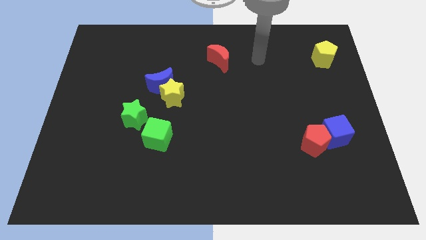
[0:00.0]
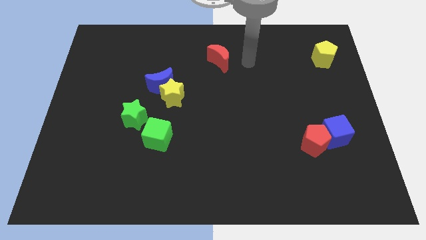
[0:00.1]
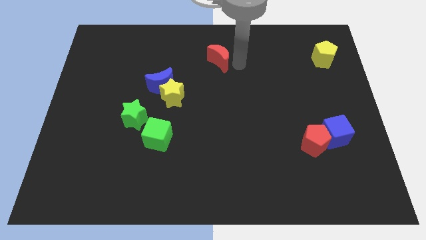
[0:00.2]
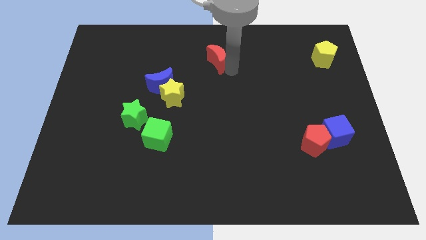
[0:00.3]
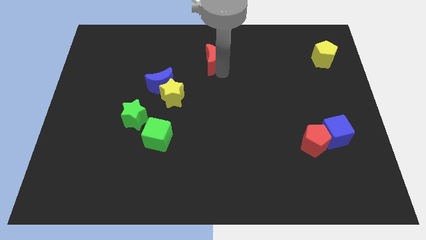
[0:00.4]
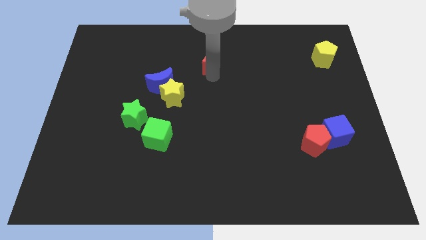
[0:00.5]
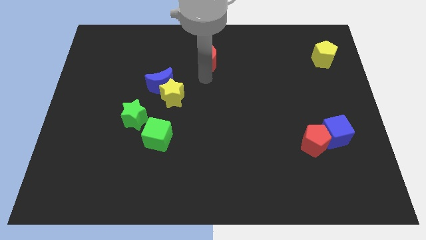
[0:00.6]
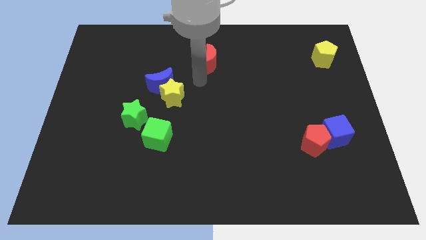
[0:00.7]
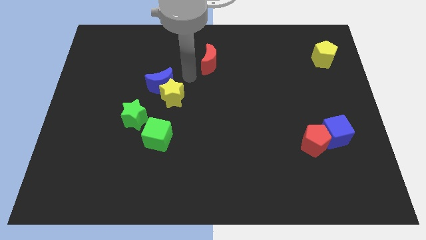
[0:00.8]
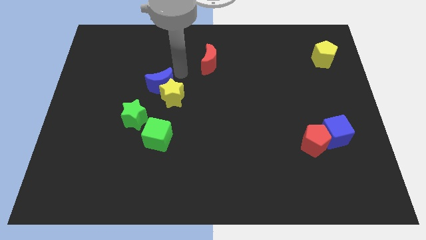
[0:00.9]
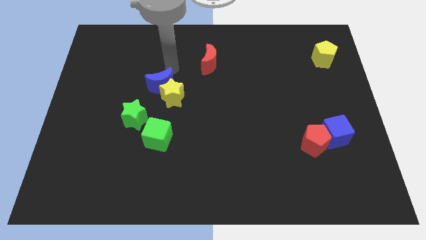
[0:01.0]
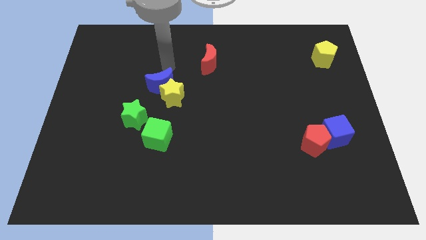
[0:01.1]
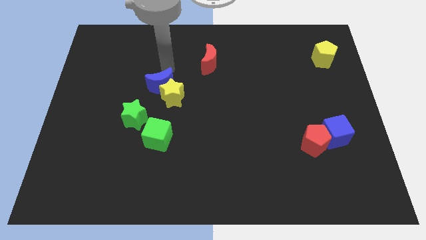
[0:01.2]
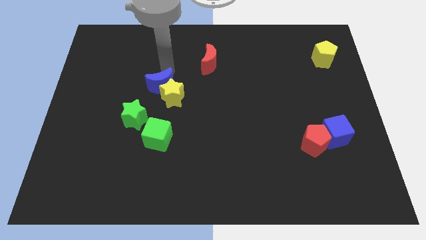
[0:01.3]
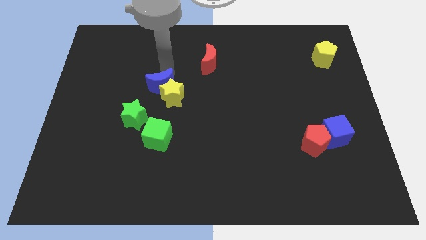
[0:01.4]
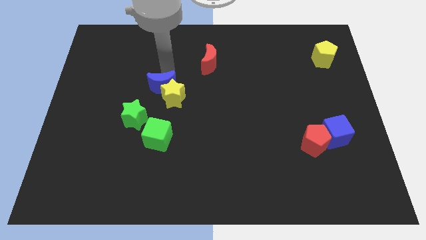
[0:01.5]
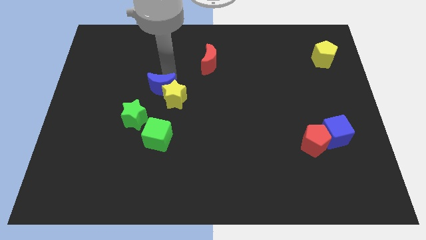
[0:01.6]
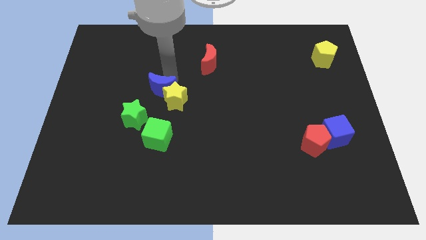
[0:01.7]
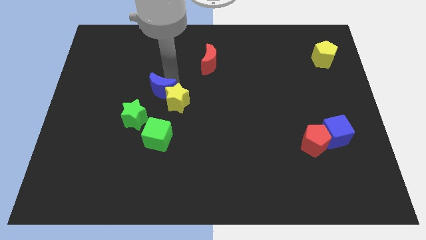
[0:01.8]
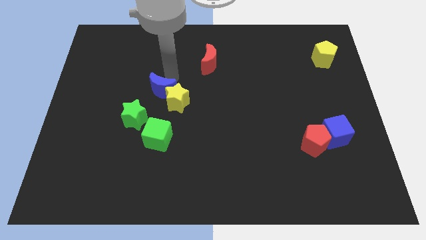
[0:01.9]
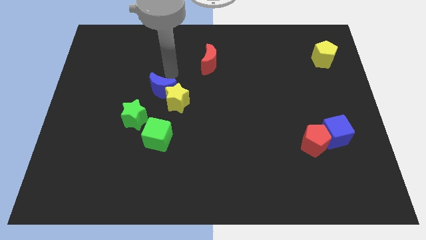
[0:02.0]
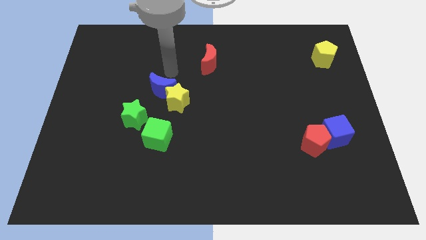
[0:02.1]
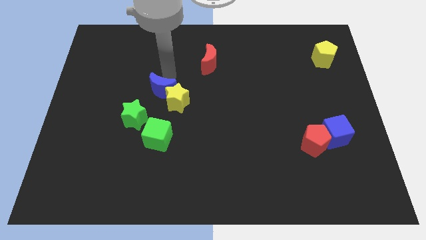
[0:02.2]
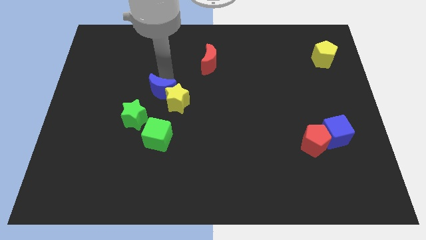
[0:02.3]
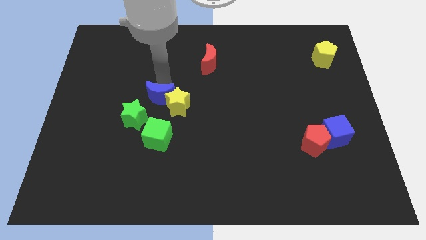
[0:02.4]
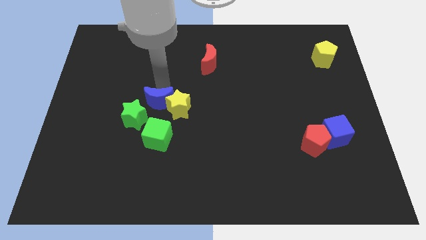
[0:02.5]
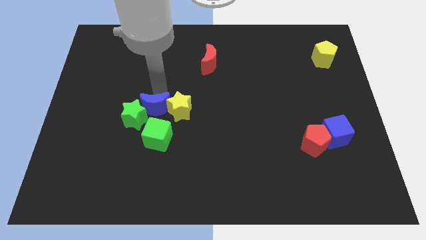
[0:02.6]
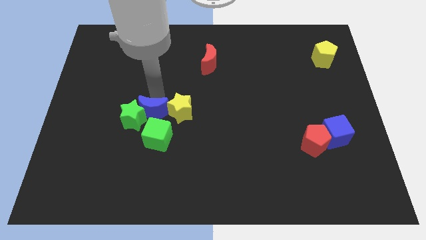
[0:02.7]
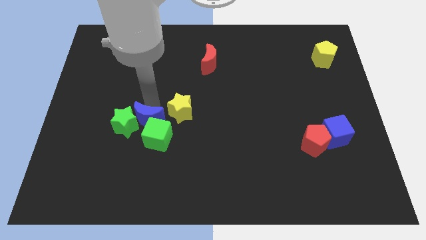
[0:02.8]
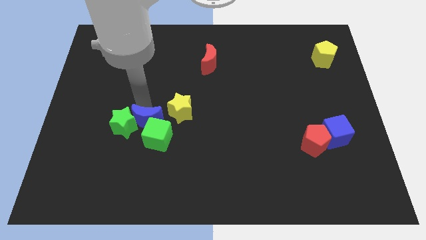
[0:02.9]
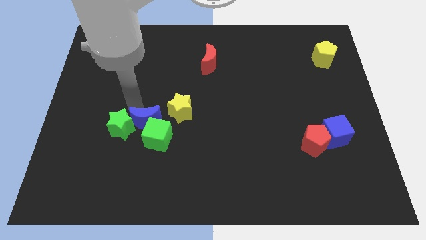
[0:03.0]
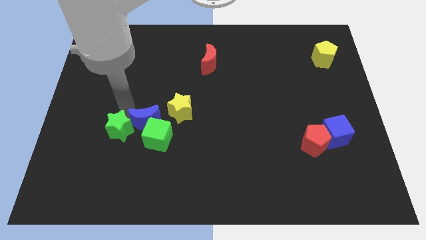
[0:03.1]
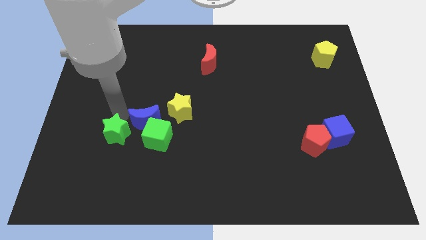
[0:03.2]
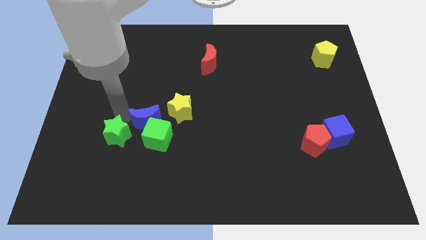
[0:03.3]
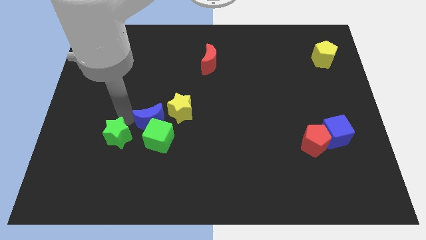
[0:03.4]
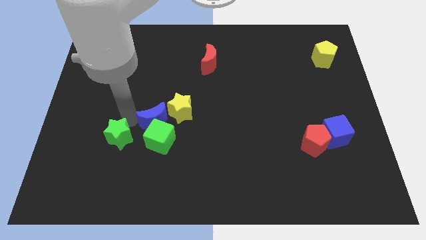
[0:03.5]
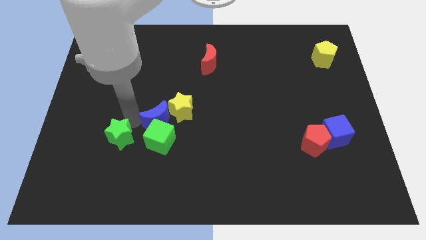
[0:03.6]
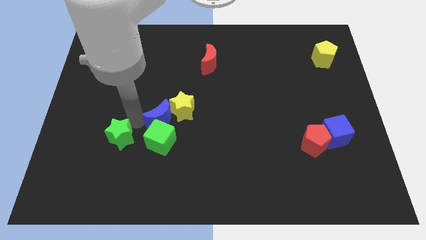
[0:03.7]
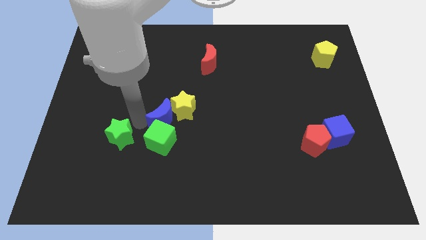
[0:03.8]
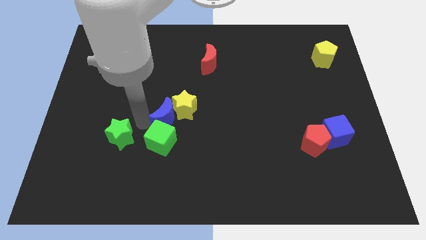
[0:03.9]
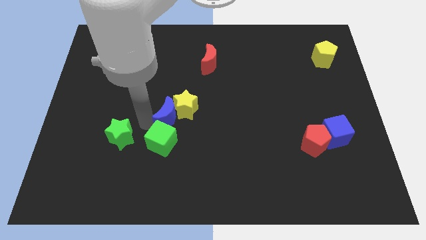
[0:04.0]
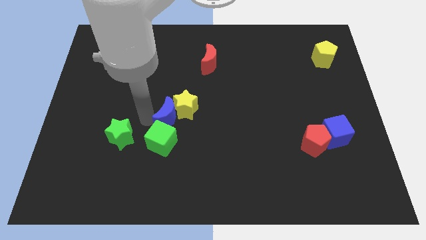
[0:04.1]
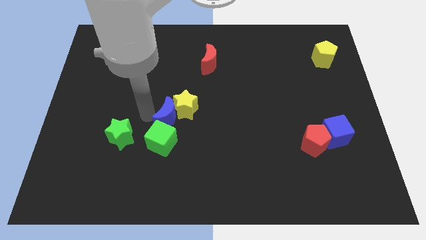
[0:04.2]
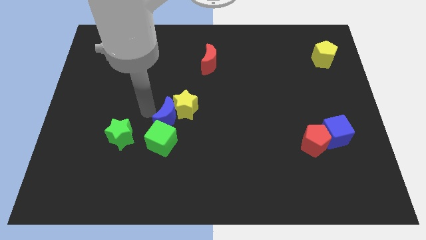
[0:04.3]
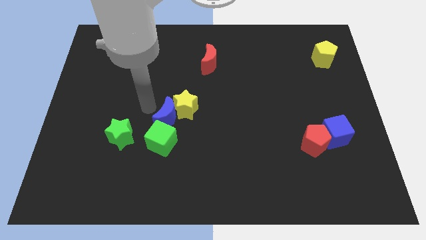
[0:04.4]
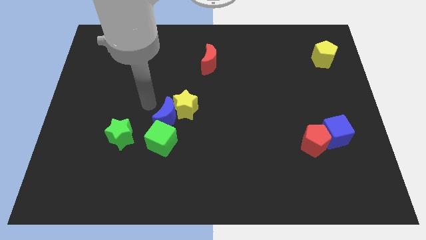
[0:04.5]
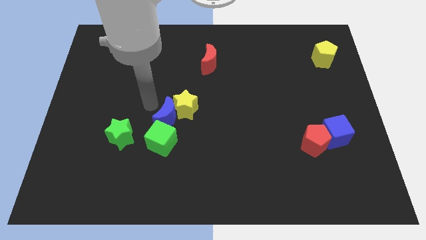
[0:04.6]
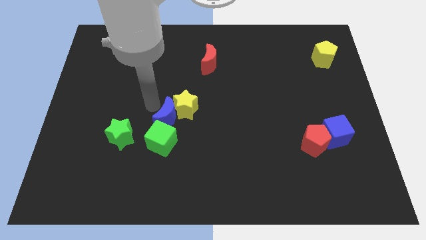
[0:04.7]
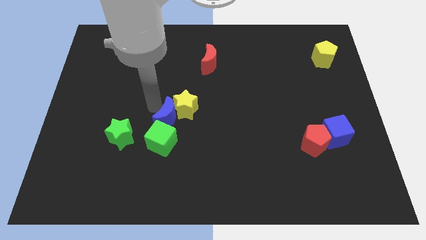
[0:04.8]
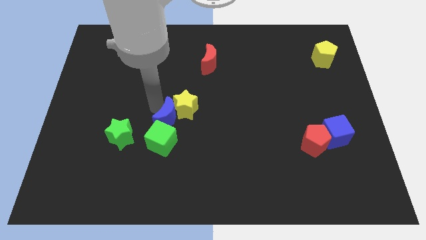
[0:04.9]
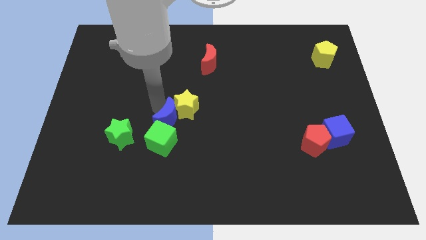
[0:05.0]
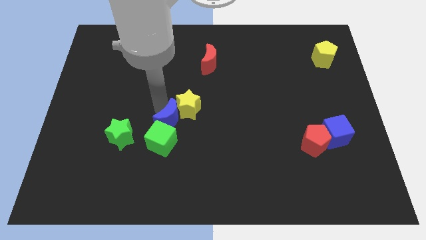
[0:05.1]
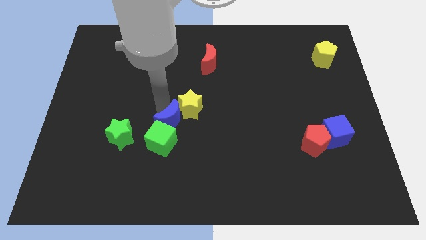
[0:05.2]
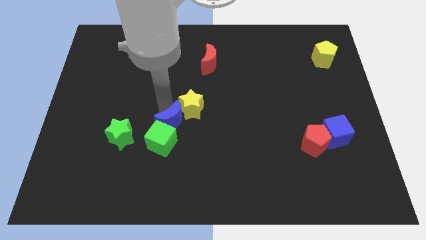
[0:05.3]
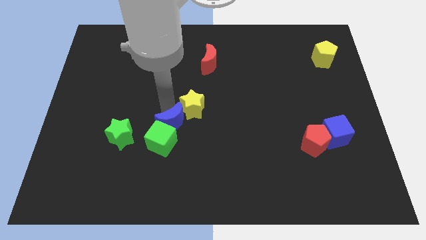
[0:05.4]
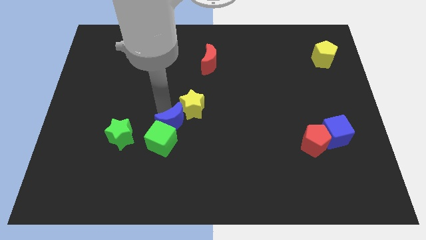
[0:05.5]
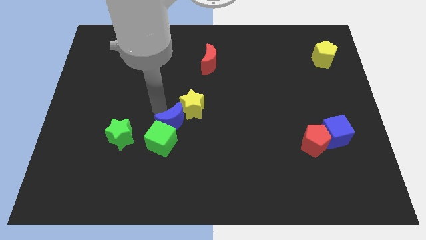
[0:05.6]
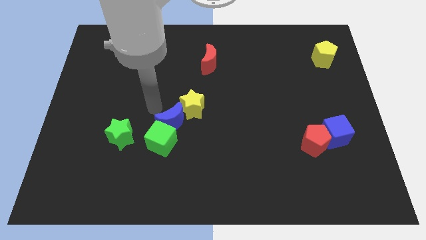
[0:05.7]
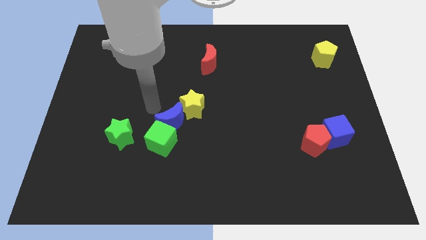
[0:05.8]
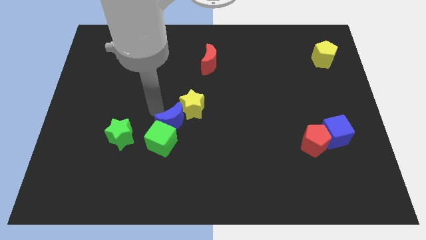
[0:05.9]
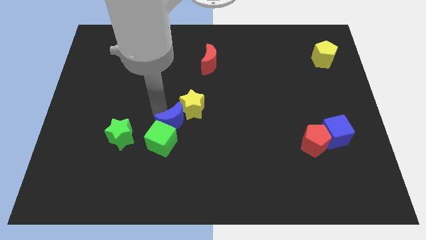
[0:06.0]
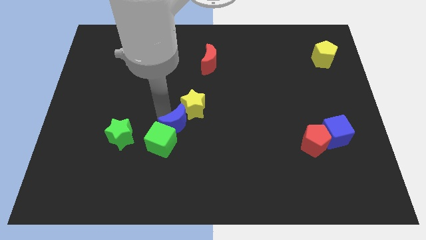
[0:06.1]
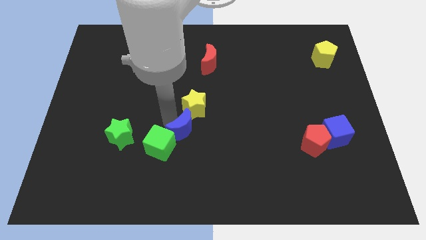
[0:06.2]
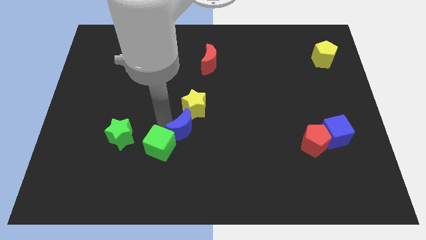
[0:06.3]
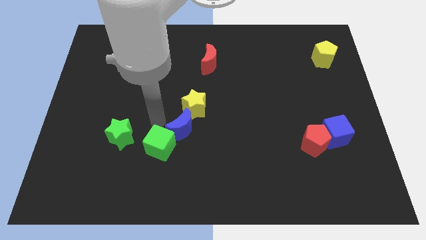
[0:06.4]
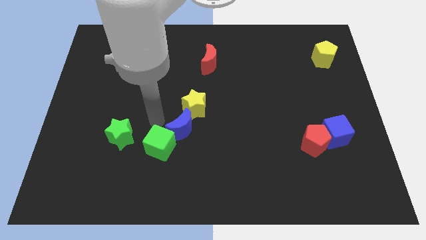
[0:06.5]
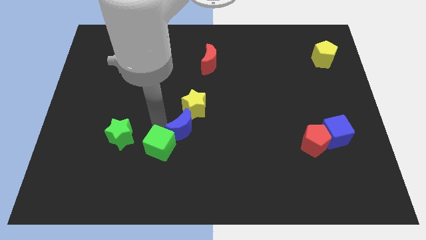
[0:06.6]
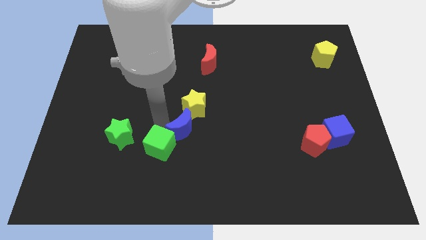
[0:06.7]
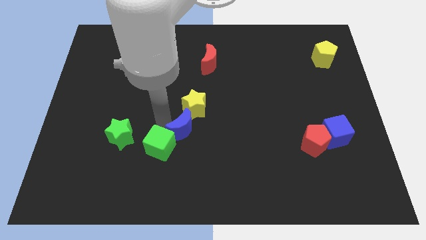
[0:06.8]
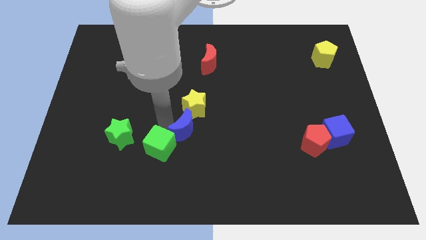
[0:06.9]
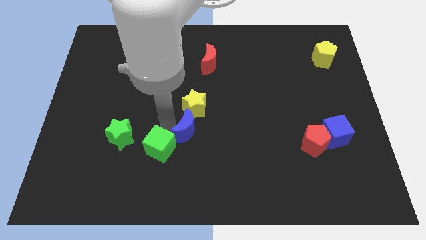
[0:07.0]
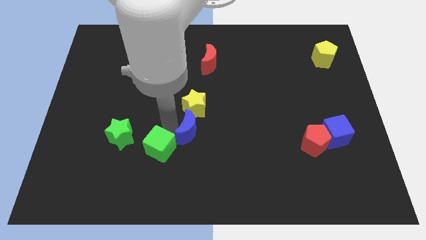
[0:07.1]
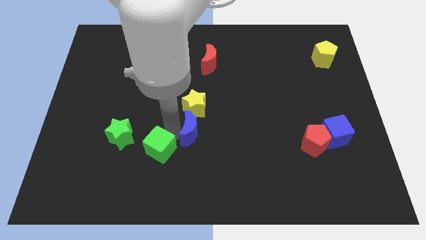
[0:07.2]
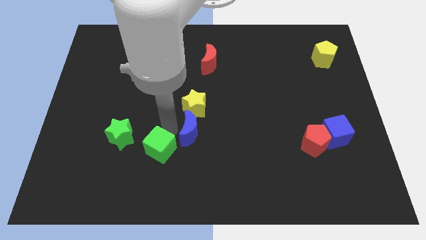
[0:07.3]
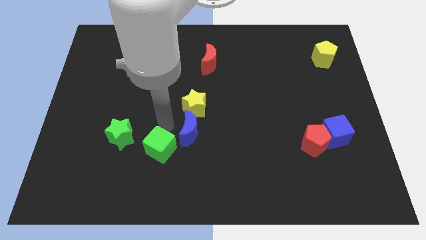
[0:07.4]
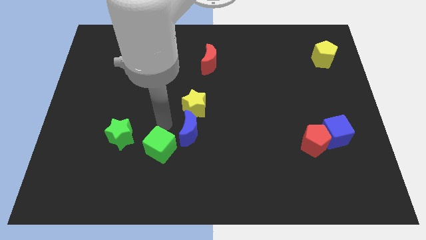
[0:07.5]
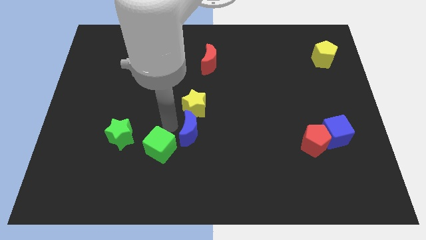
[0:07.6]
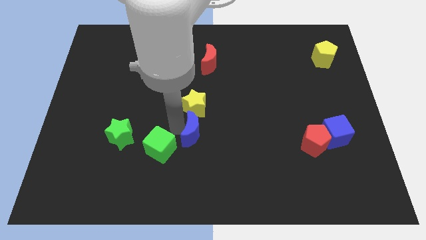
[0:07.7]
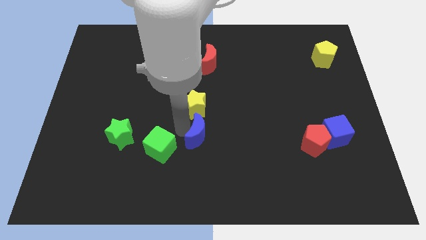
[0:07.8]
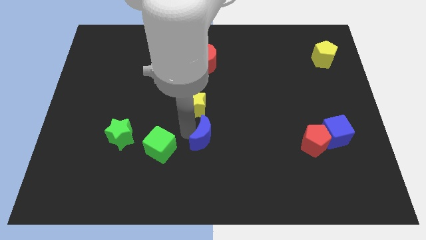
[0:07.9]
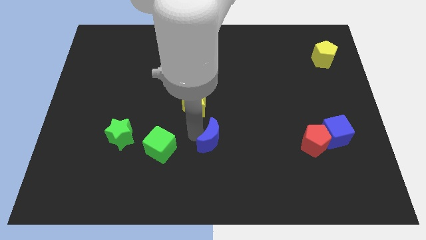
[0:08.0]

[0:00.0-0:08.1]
move the blue moon down and then to the right

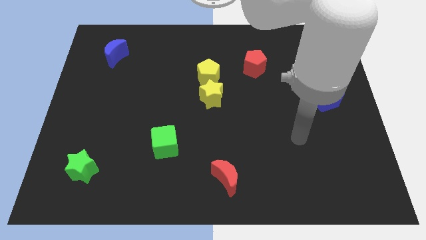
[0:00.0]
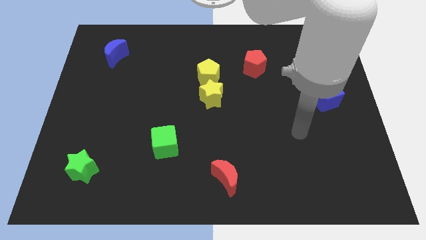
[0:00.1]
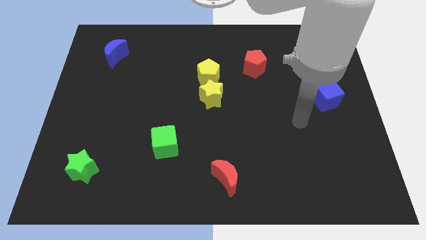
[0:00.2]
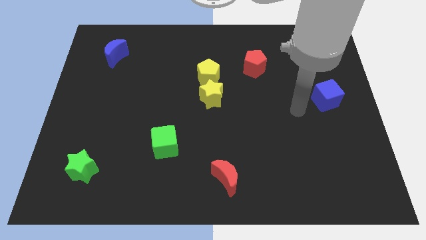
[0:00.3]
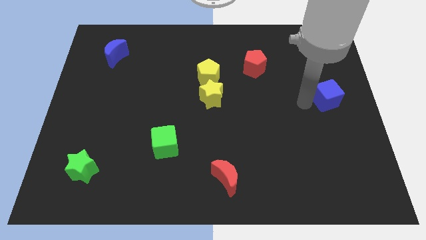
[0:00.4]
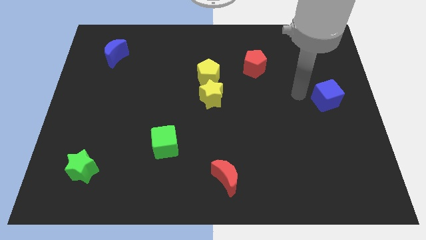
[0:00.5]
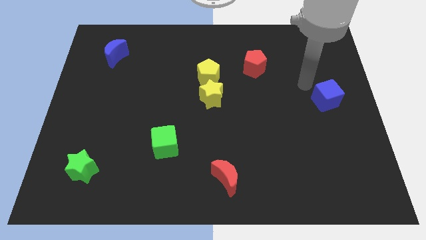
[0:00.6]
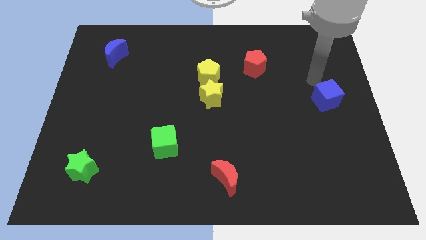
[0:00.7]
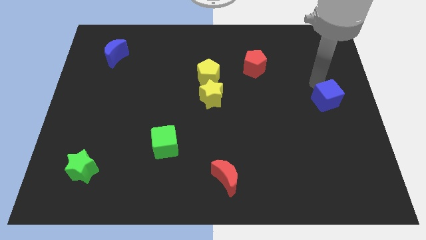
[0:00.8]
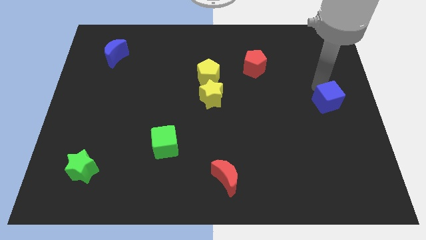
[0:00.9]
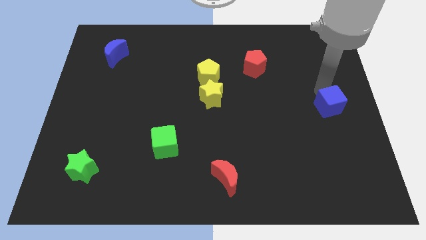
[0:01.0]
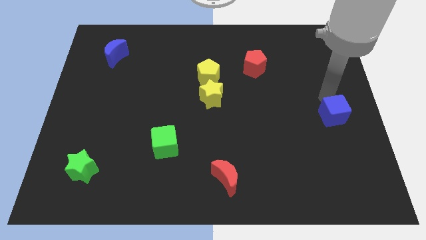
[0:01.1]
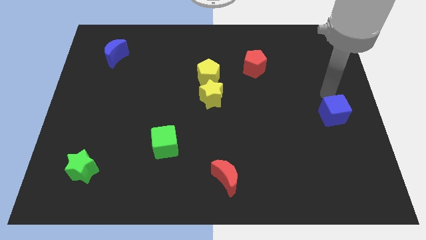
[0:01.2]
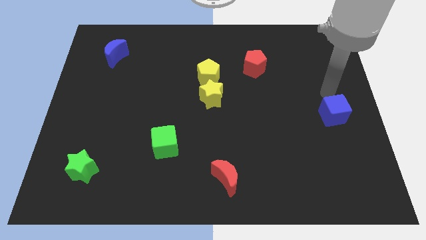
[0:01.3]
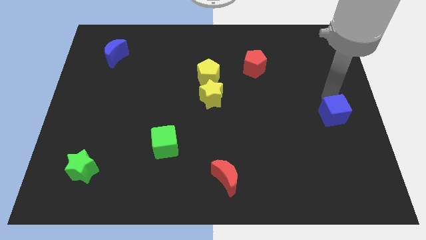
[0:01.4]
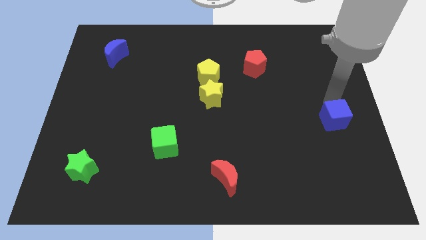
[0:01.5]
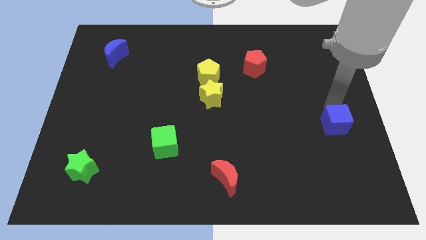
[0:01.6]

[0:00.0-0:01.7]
push the blue cube slightly downwards
